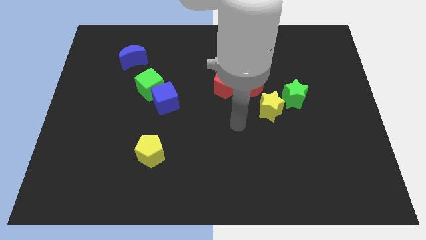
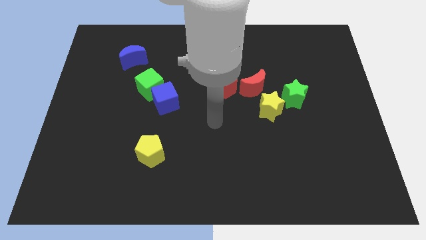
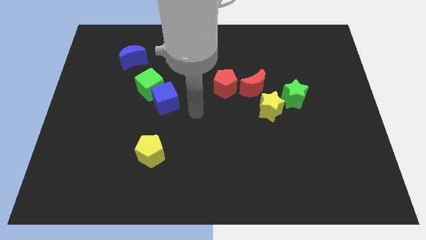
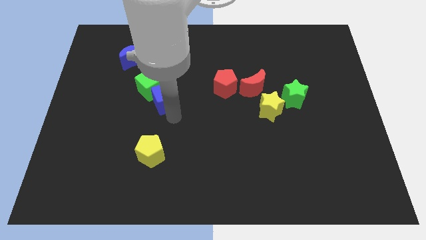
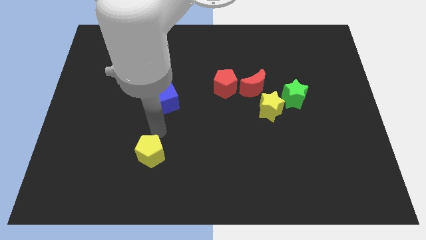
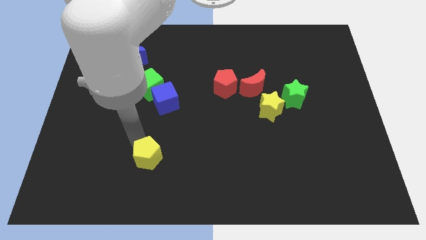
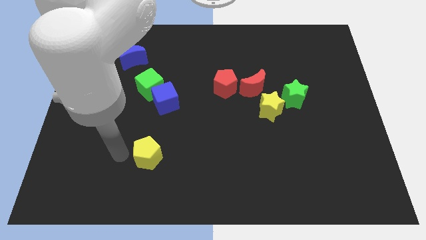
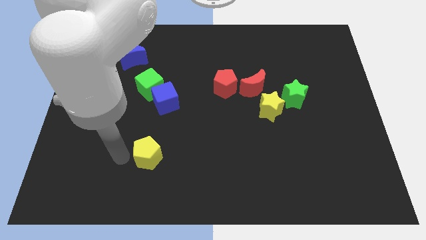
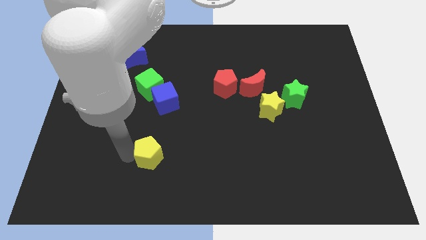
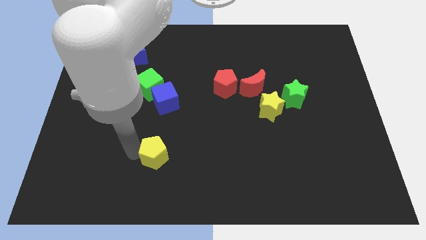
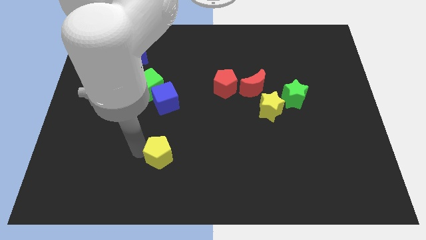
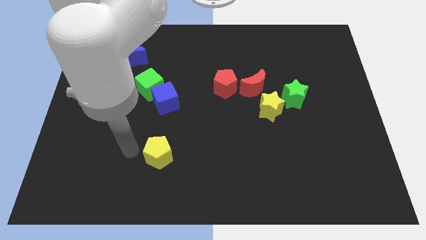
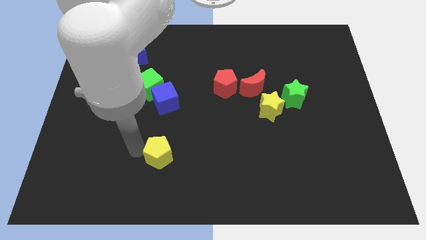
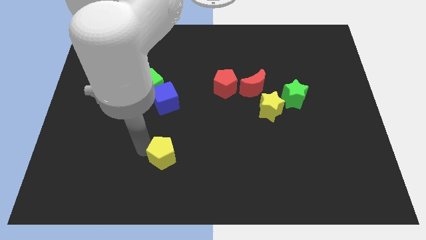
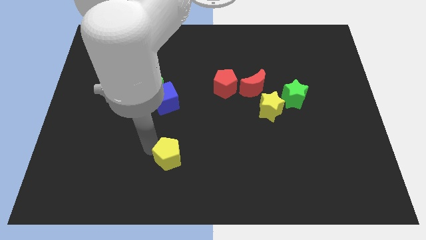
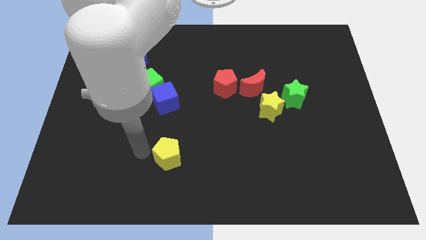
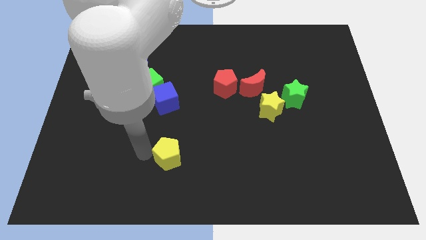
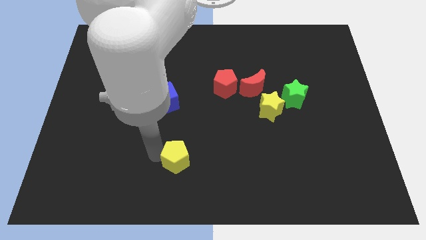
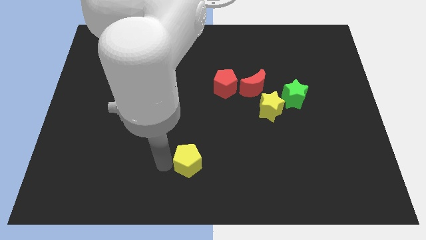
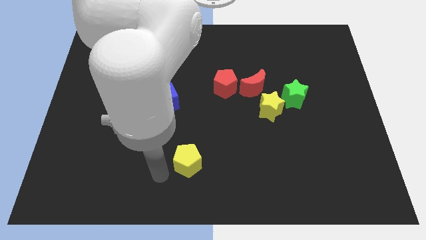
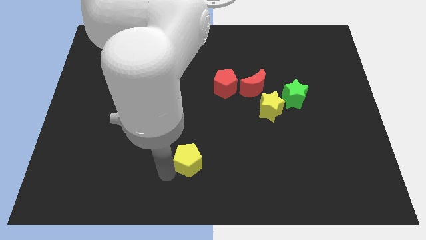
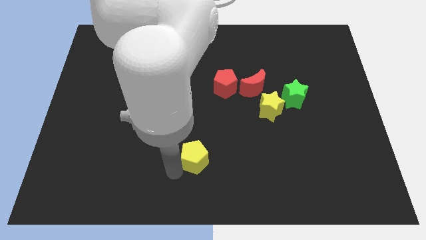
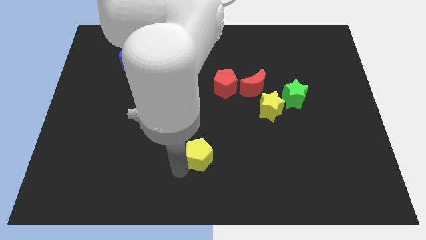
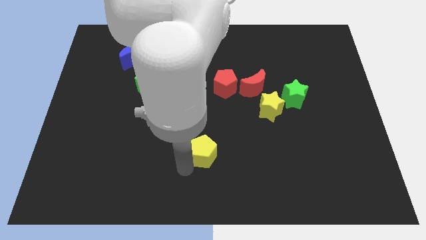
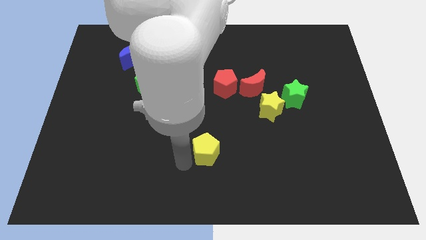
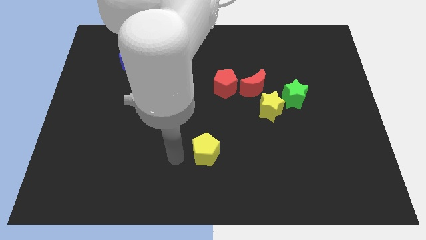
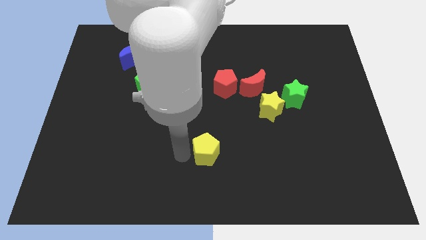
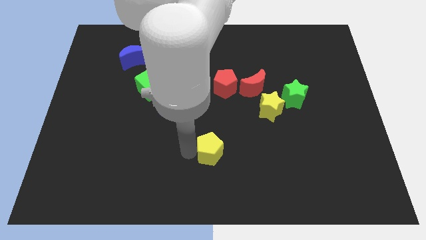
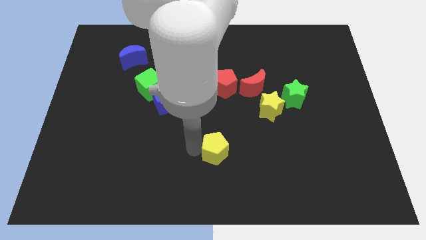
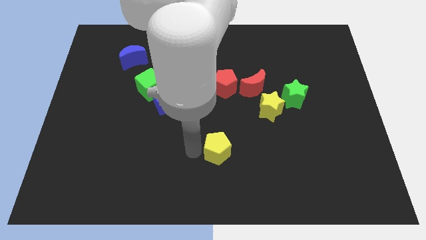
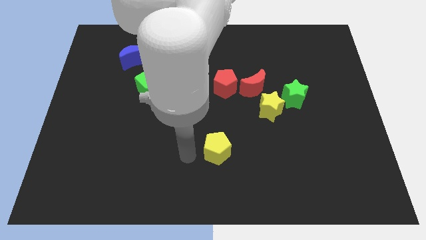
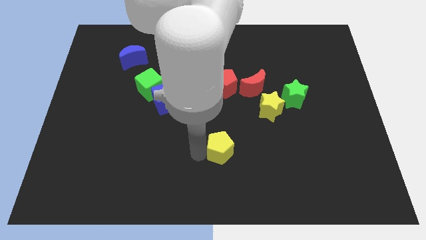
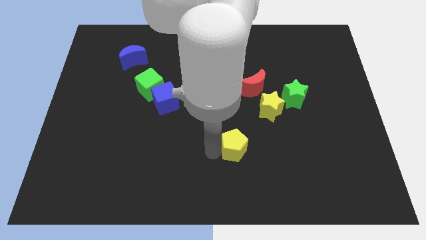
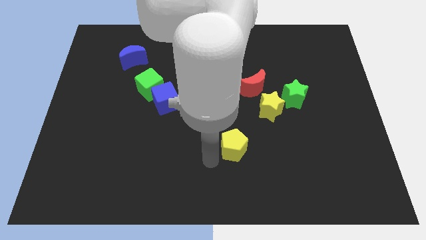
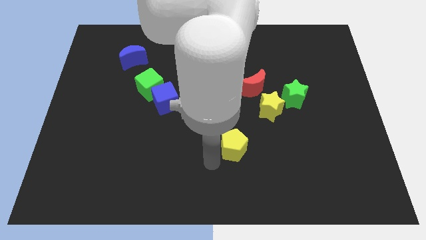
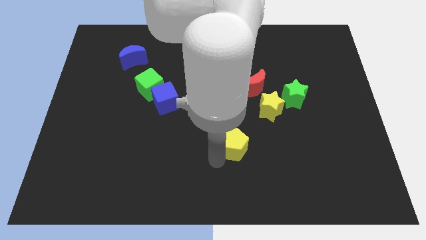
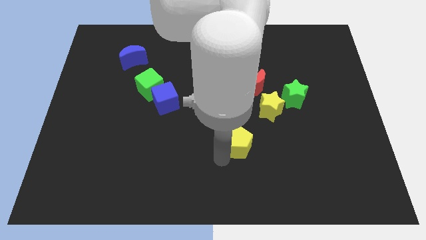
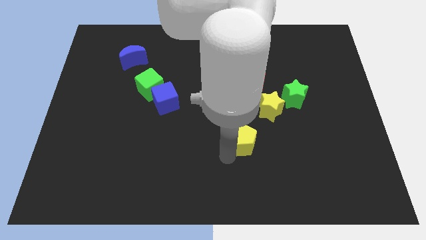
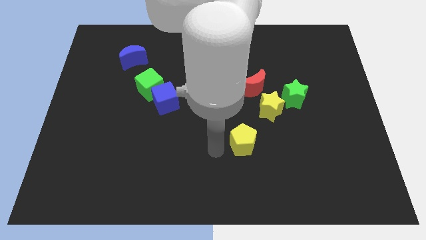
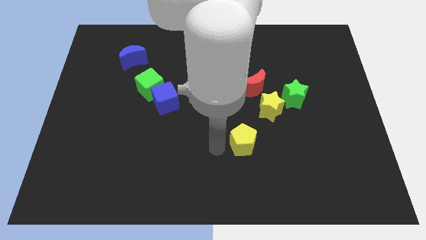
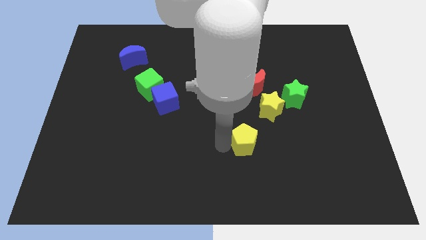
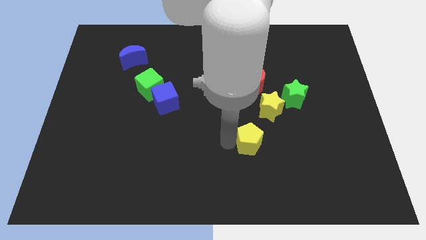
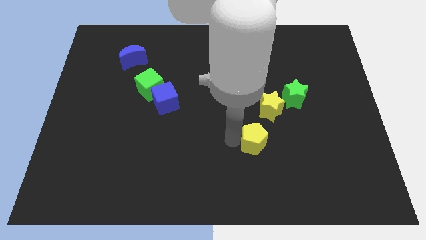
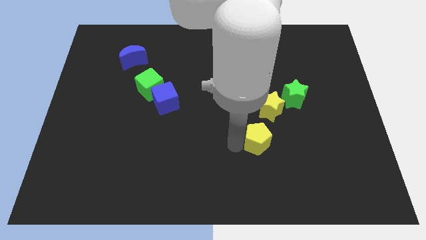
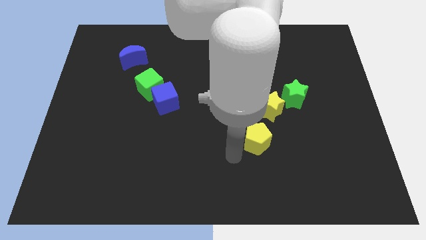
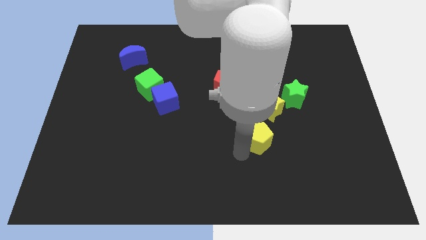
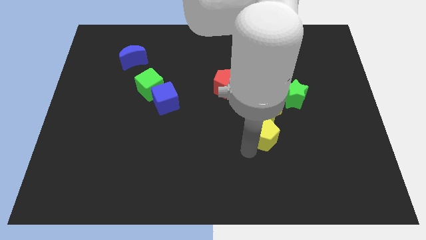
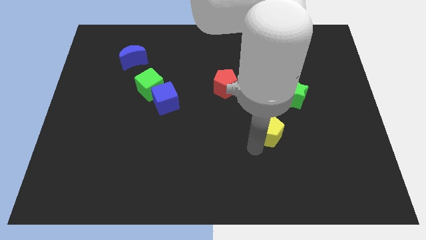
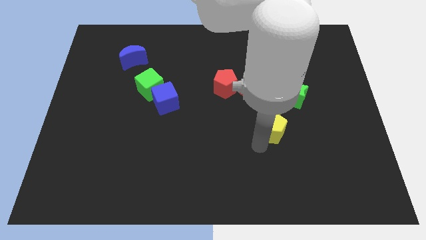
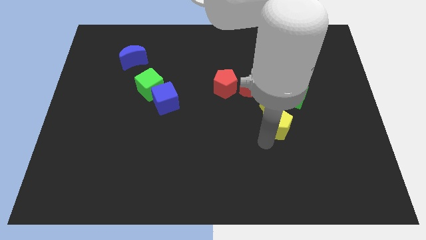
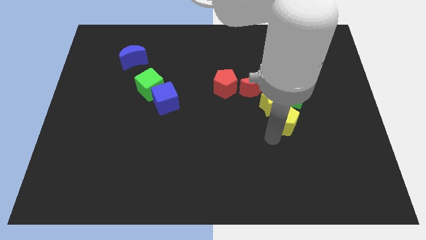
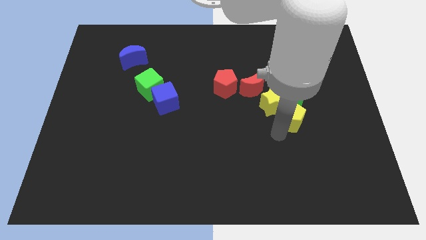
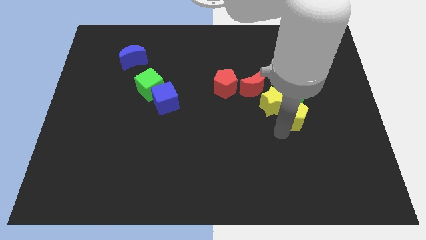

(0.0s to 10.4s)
slide the yellow pentagon towards the green star

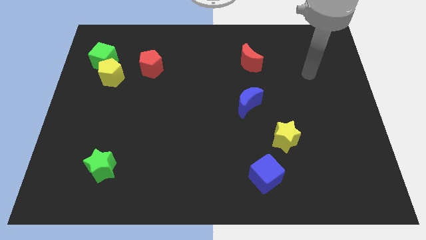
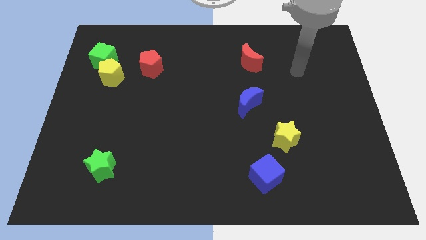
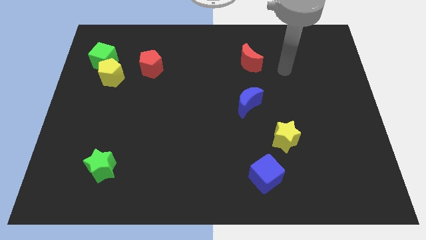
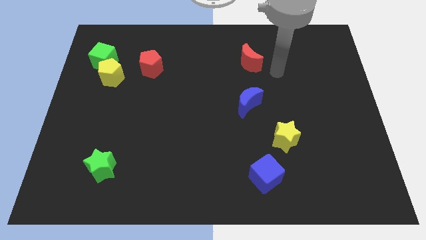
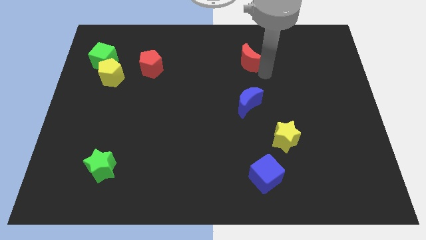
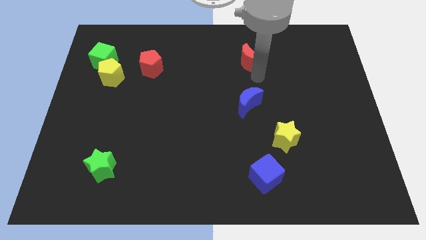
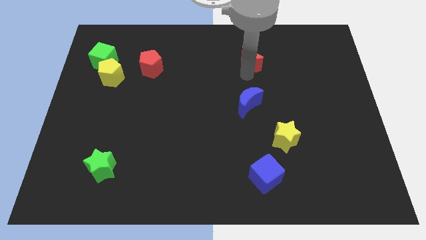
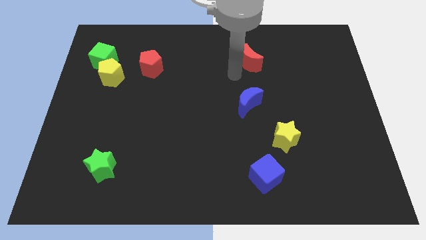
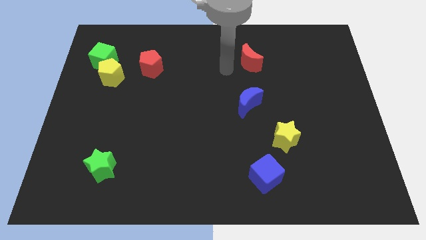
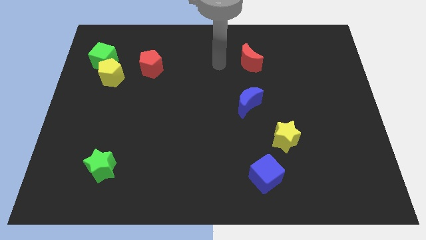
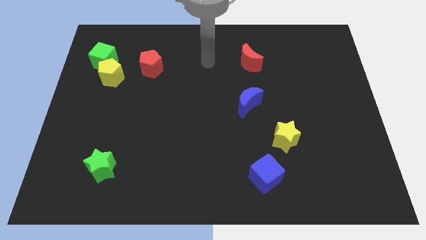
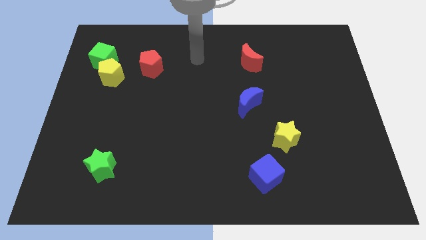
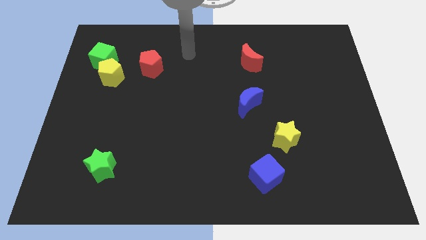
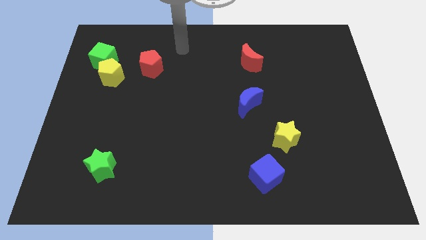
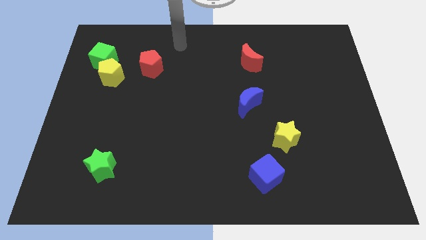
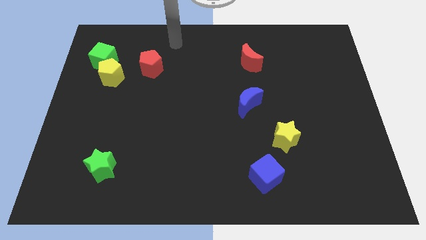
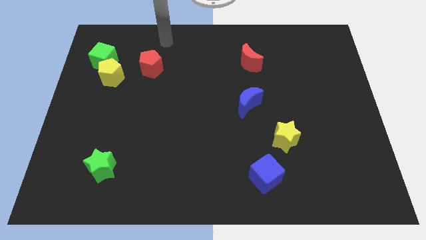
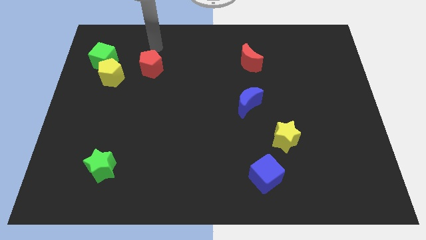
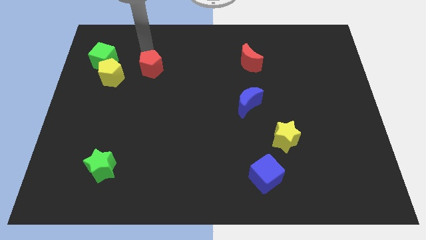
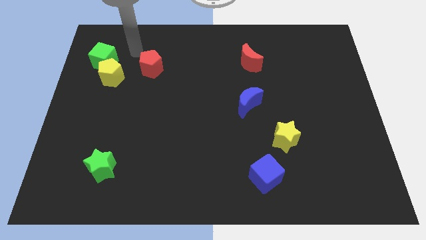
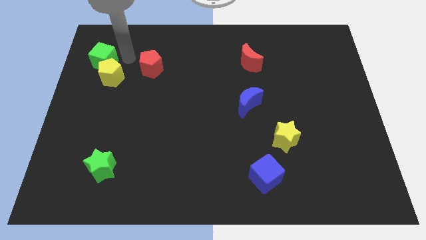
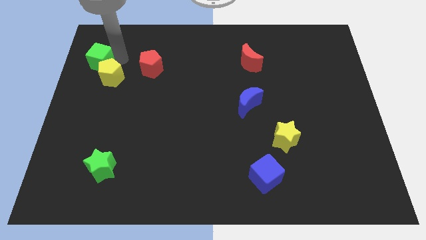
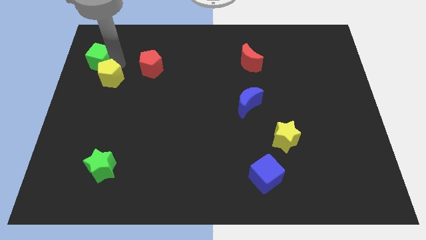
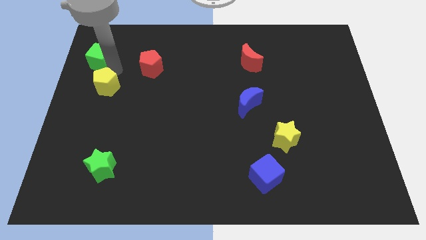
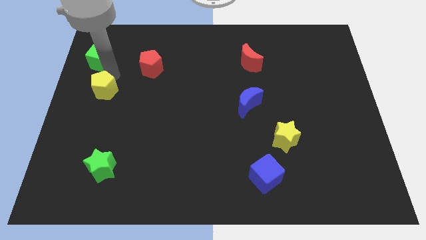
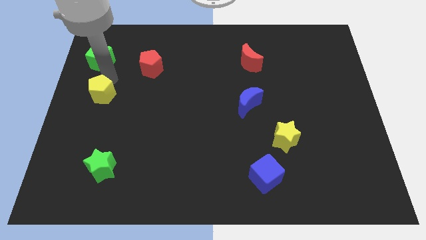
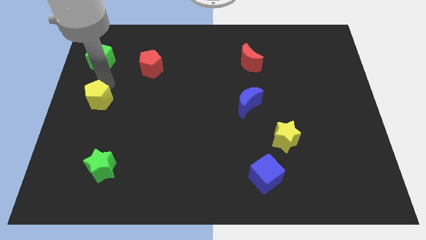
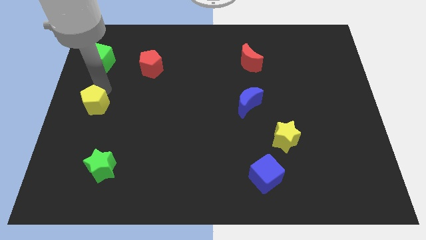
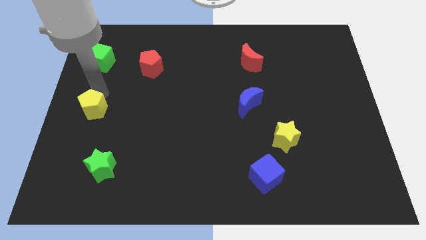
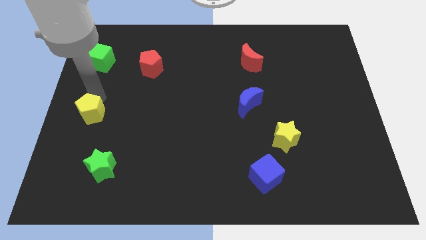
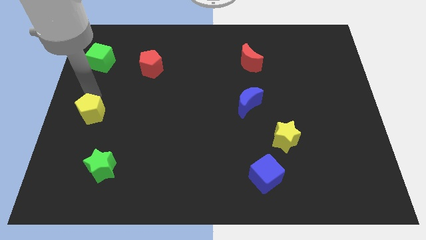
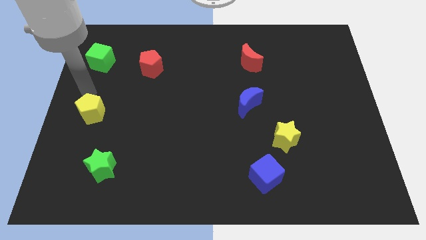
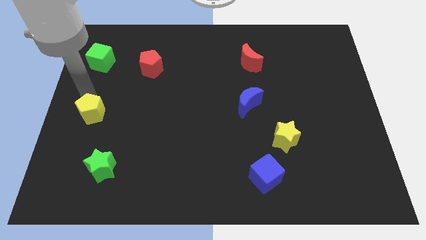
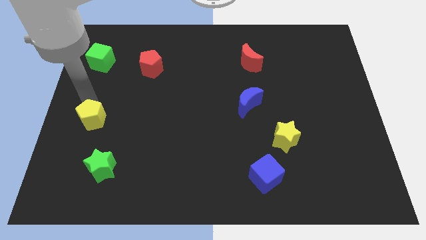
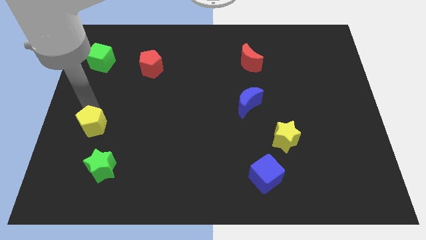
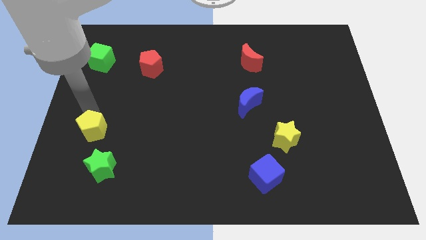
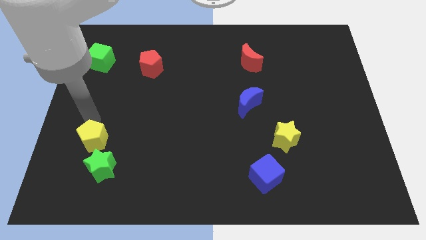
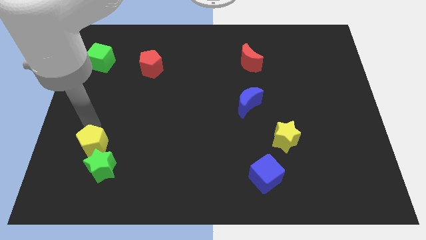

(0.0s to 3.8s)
put the yellow pentagon next to the green star
